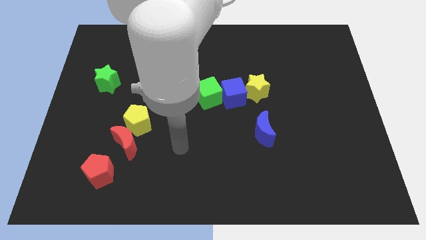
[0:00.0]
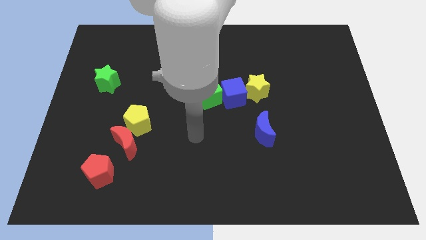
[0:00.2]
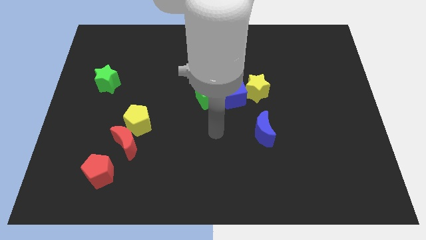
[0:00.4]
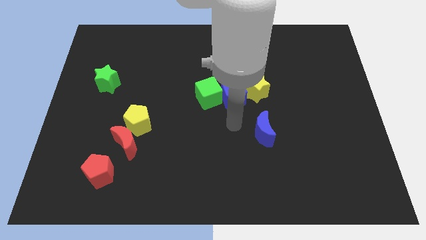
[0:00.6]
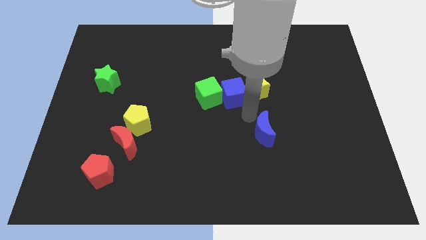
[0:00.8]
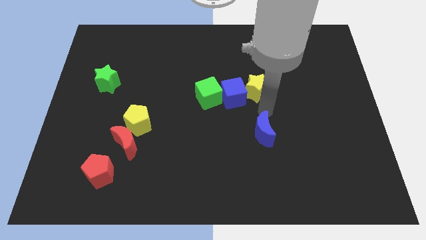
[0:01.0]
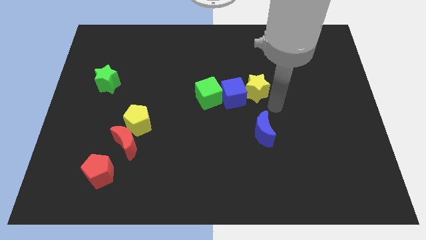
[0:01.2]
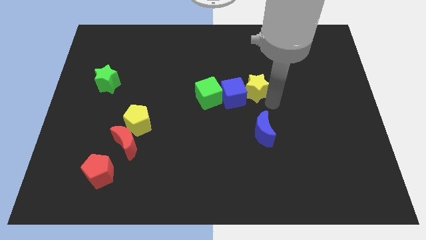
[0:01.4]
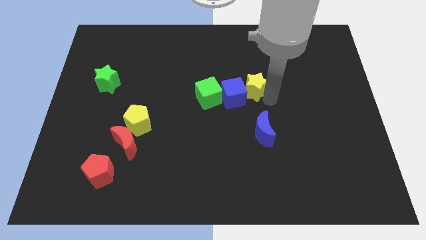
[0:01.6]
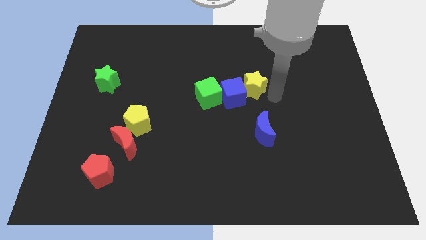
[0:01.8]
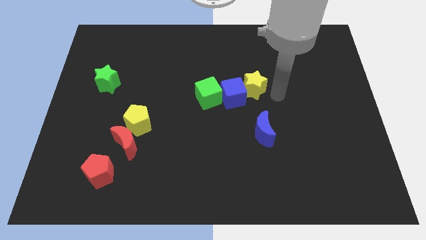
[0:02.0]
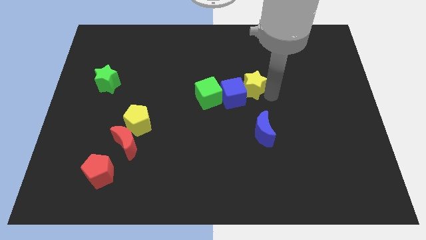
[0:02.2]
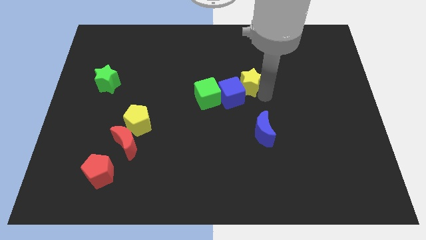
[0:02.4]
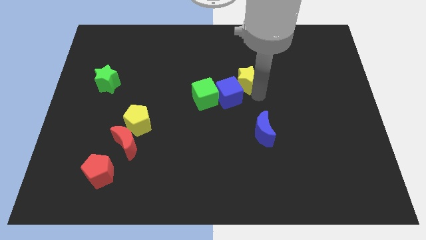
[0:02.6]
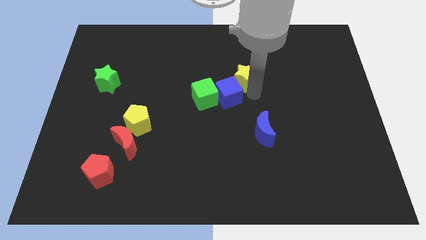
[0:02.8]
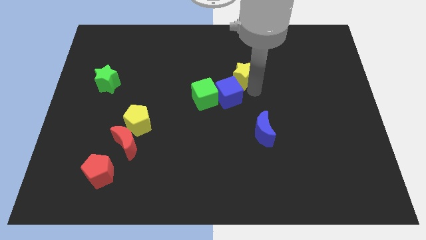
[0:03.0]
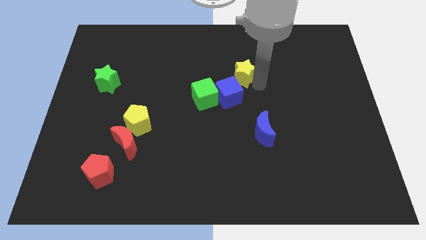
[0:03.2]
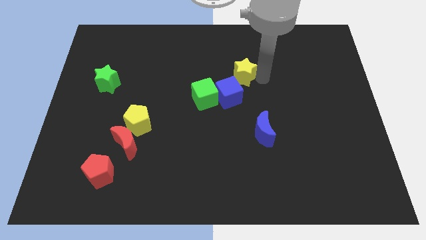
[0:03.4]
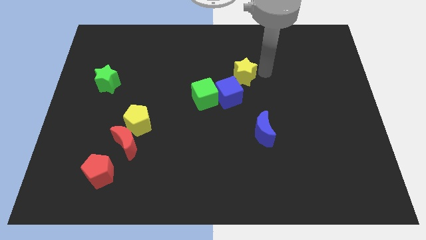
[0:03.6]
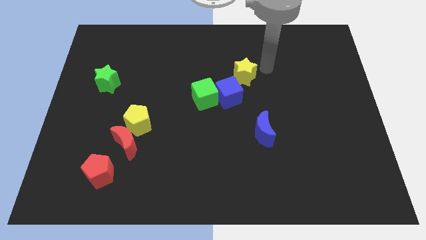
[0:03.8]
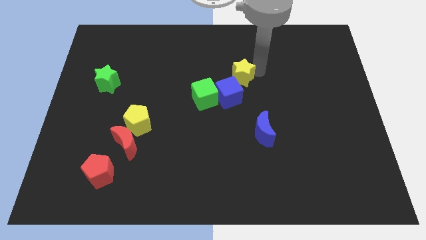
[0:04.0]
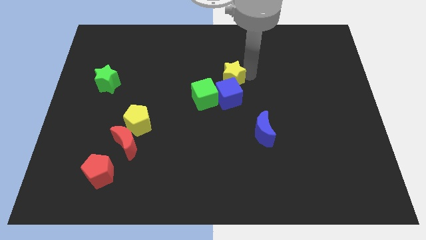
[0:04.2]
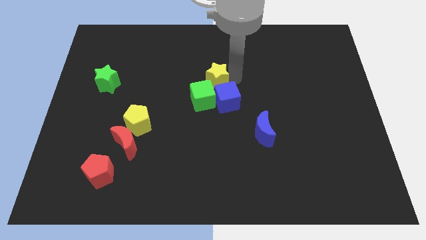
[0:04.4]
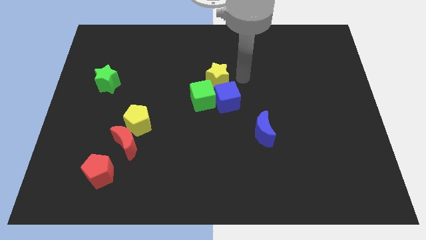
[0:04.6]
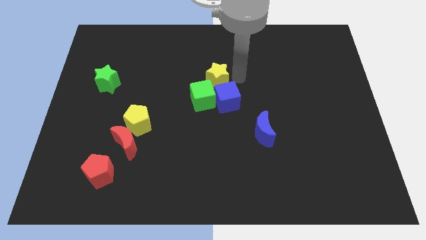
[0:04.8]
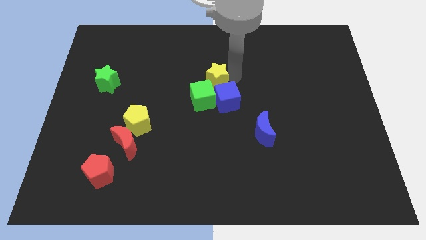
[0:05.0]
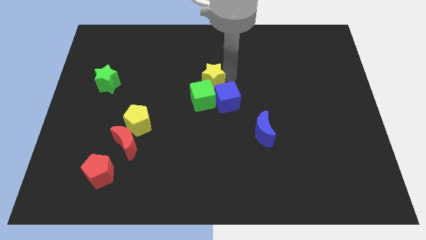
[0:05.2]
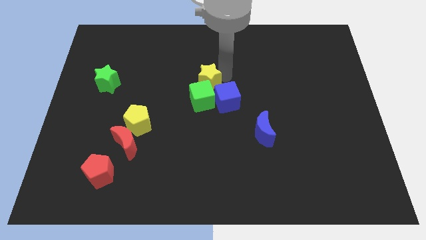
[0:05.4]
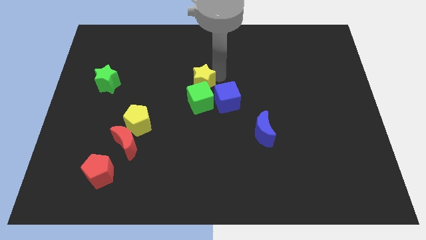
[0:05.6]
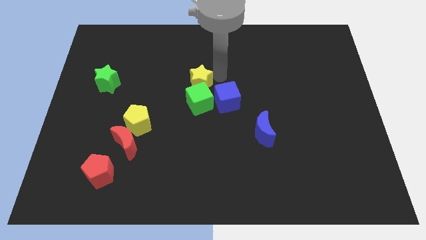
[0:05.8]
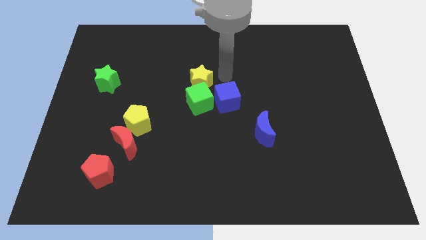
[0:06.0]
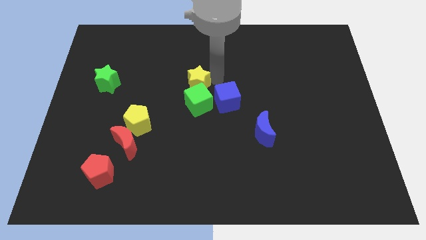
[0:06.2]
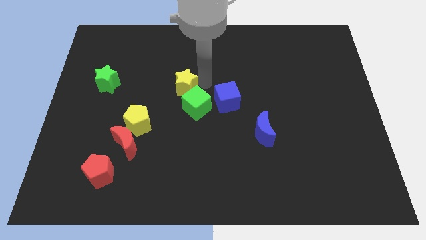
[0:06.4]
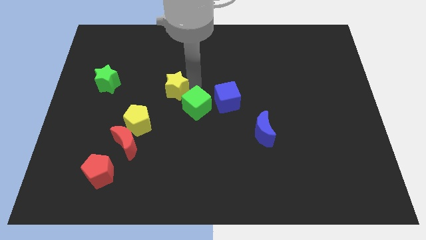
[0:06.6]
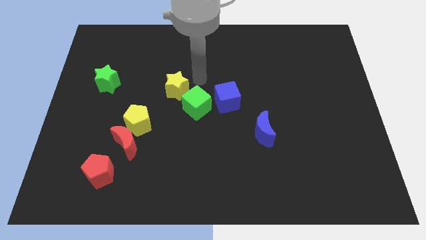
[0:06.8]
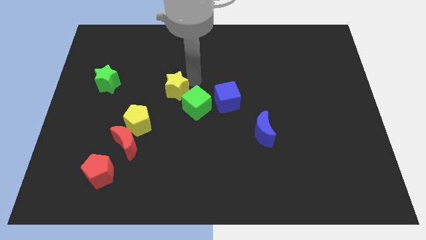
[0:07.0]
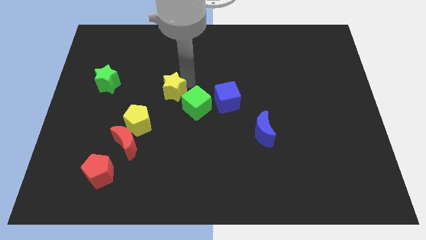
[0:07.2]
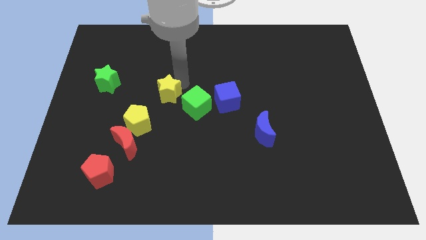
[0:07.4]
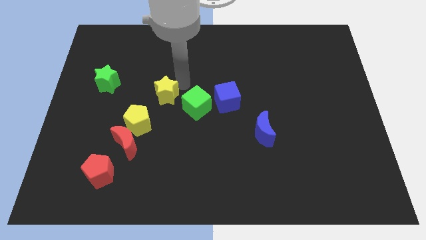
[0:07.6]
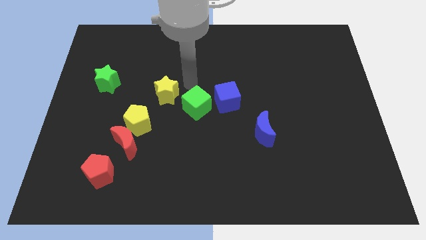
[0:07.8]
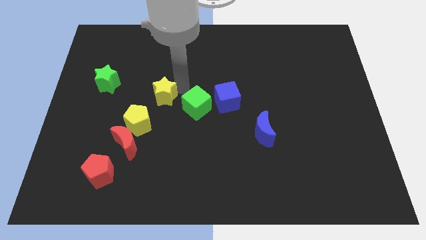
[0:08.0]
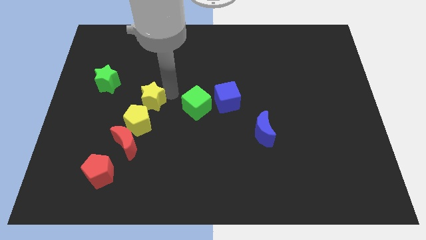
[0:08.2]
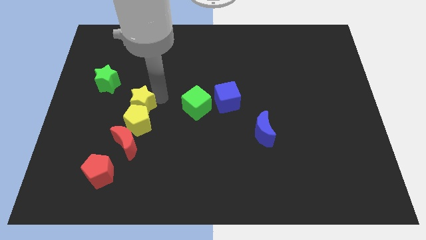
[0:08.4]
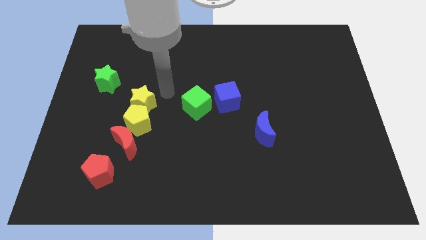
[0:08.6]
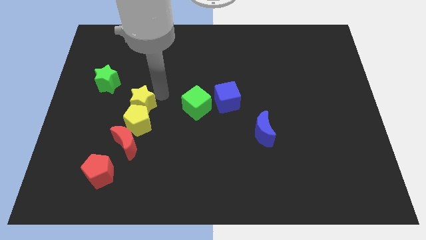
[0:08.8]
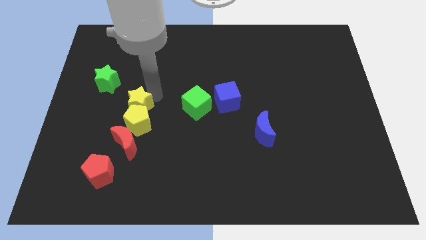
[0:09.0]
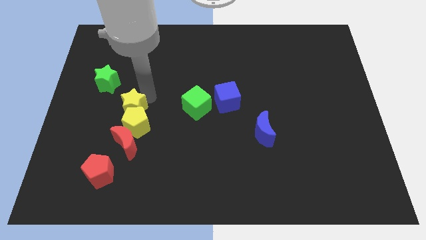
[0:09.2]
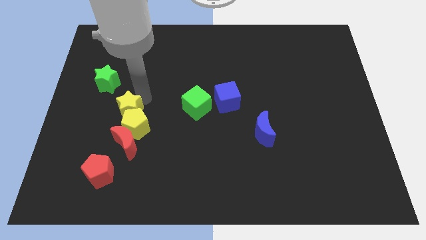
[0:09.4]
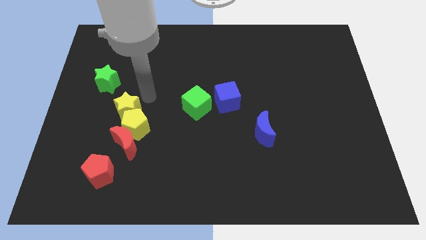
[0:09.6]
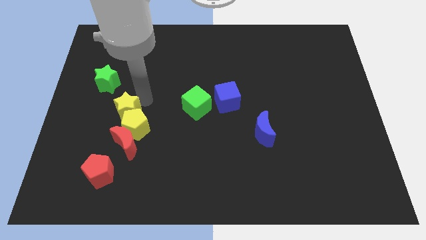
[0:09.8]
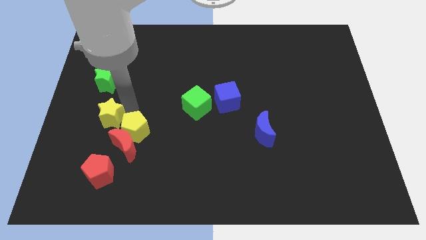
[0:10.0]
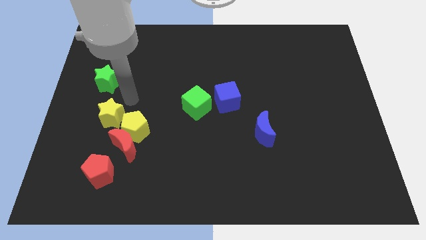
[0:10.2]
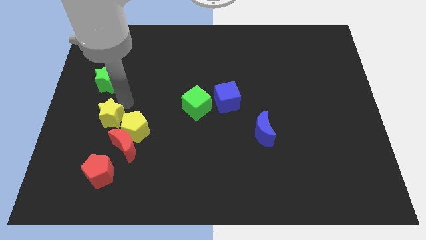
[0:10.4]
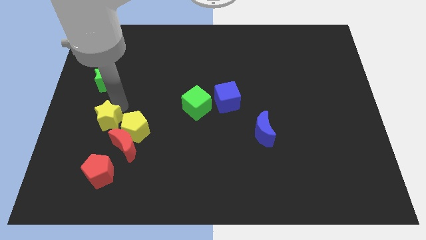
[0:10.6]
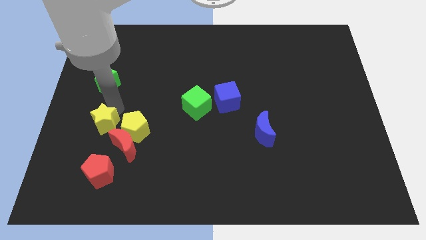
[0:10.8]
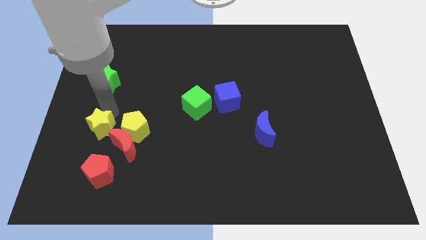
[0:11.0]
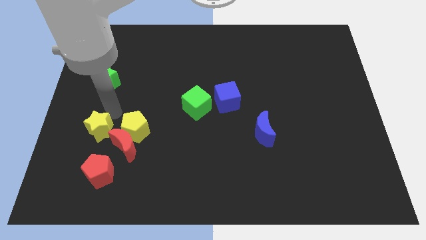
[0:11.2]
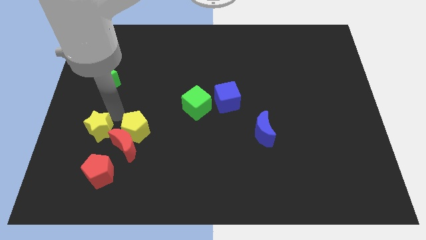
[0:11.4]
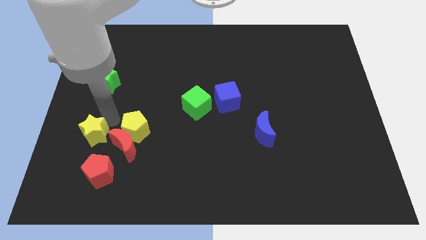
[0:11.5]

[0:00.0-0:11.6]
put the yellow star diagonally up and to the left of the red pentagon
